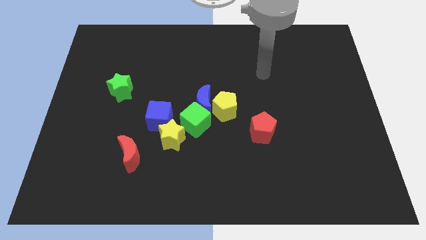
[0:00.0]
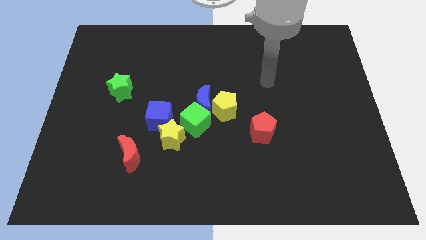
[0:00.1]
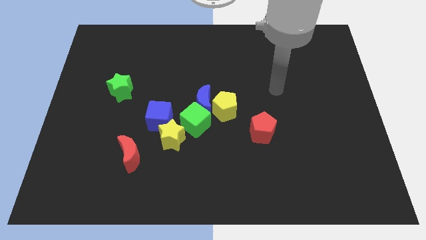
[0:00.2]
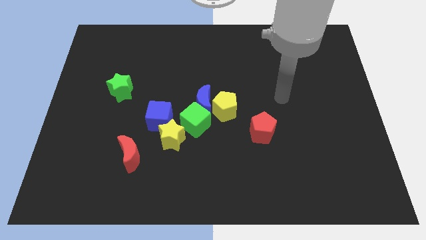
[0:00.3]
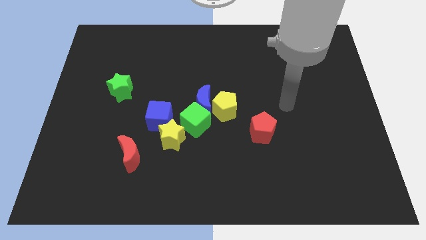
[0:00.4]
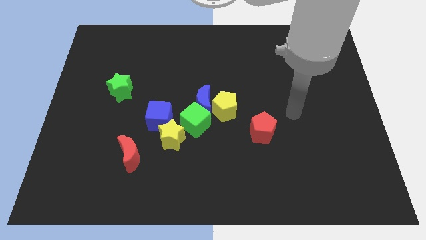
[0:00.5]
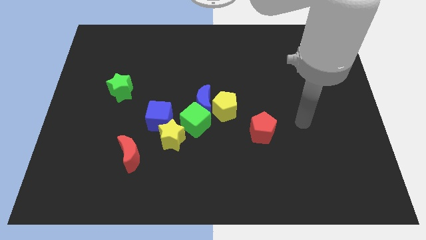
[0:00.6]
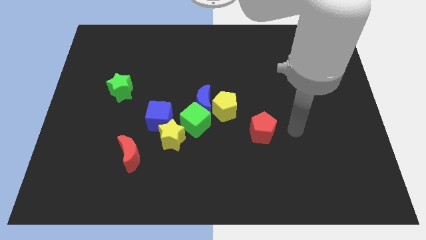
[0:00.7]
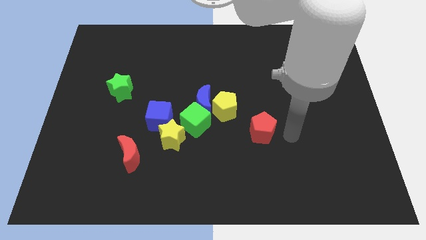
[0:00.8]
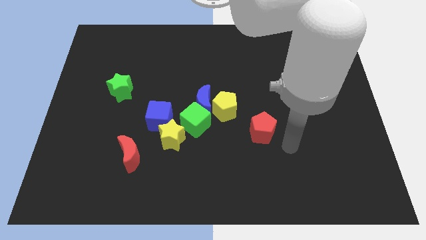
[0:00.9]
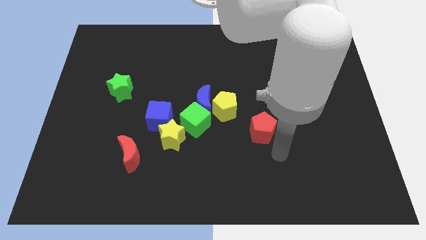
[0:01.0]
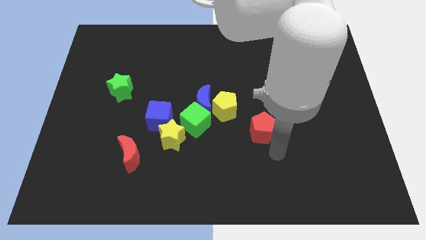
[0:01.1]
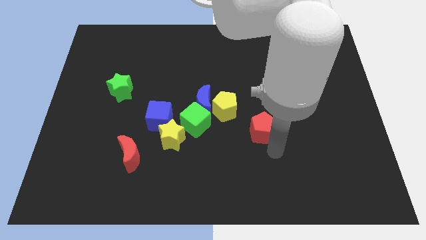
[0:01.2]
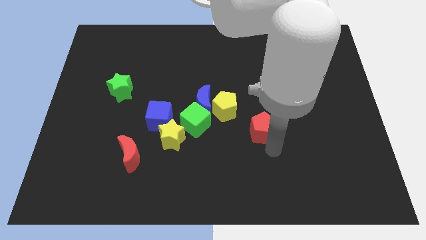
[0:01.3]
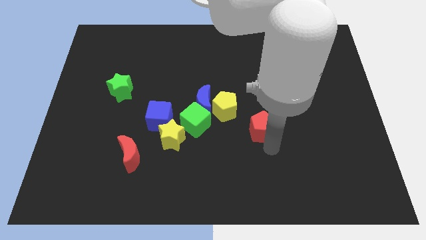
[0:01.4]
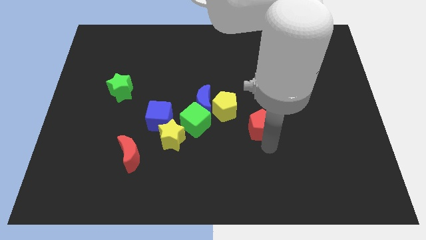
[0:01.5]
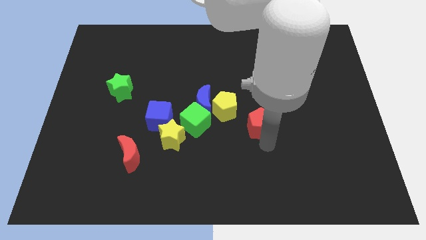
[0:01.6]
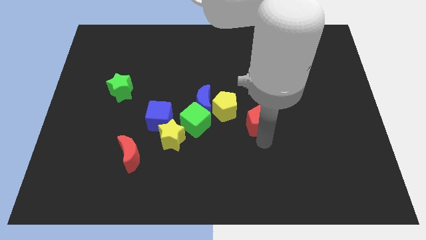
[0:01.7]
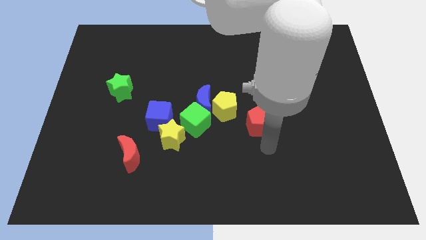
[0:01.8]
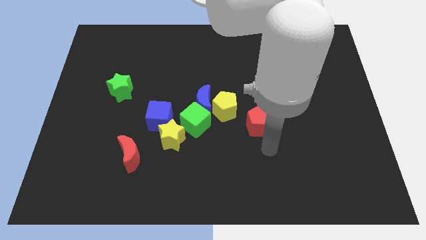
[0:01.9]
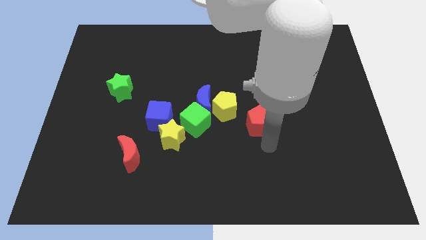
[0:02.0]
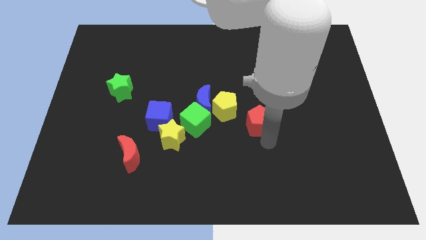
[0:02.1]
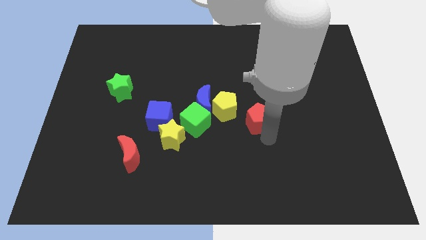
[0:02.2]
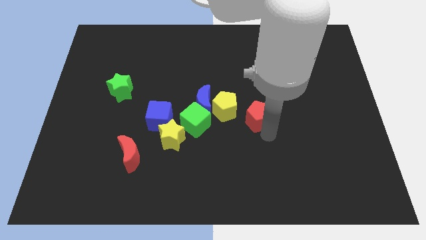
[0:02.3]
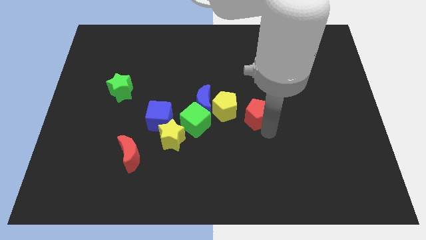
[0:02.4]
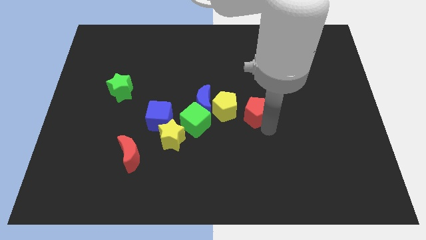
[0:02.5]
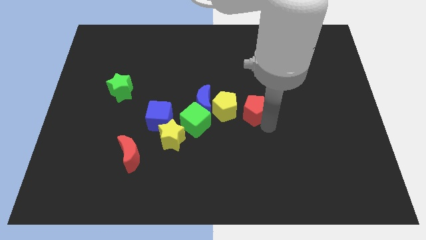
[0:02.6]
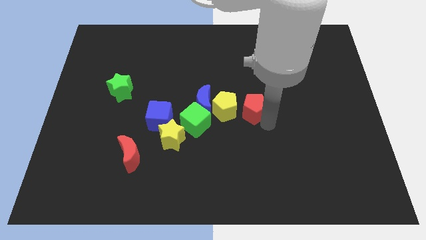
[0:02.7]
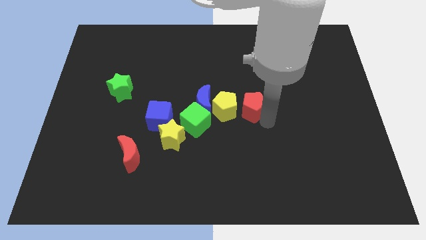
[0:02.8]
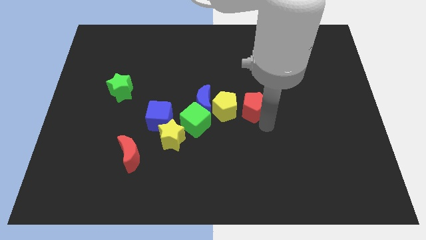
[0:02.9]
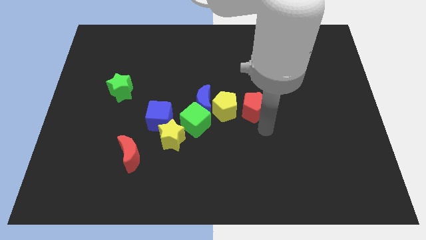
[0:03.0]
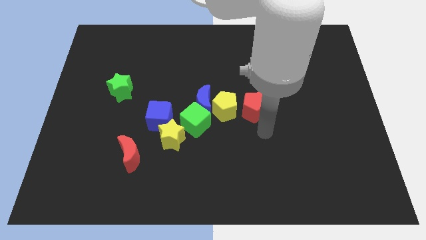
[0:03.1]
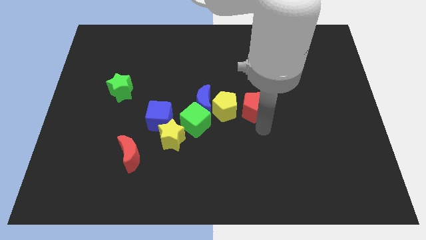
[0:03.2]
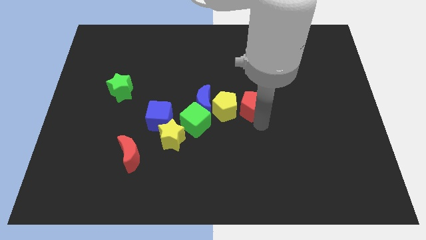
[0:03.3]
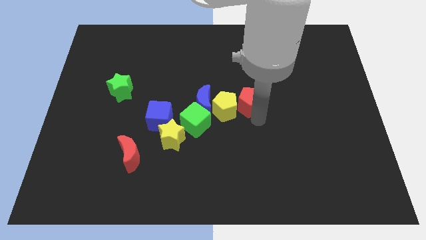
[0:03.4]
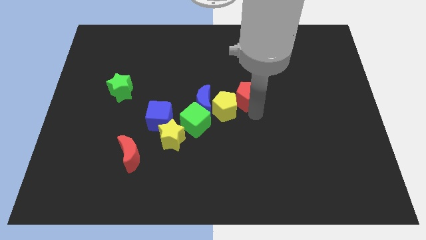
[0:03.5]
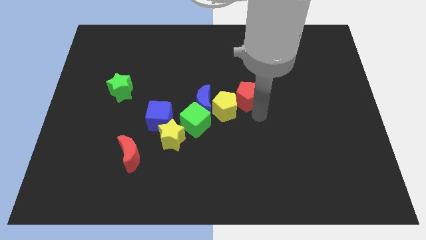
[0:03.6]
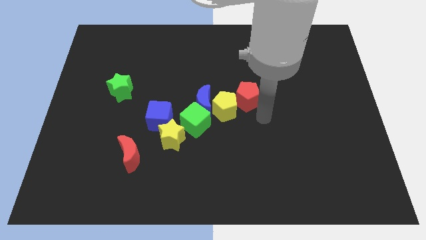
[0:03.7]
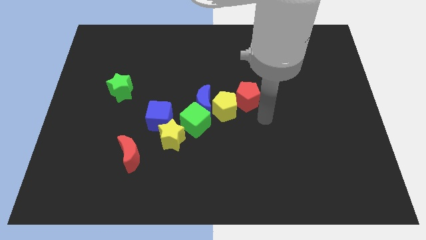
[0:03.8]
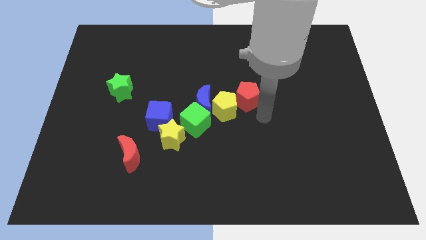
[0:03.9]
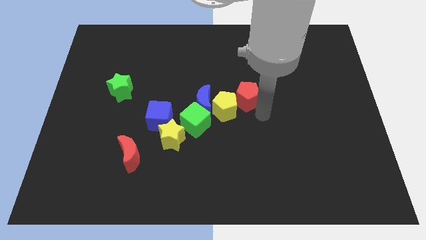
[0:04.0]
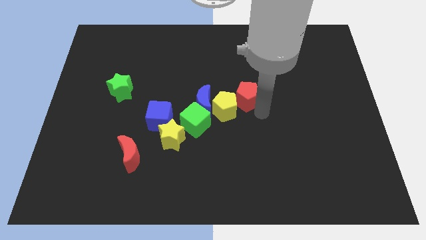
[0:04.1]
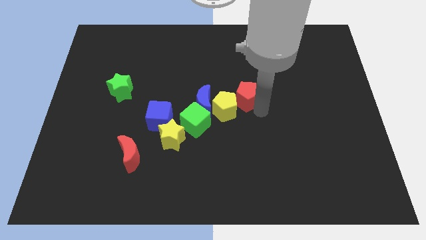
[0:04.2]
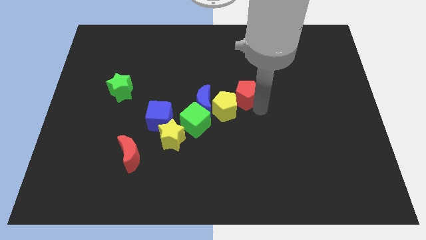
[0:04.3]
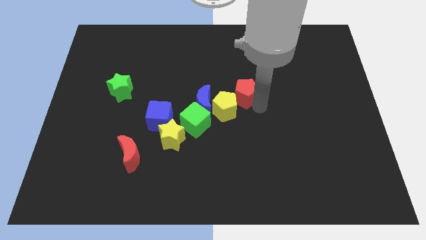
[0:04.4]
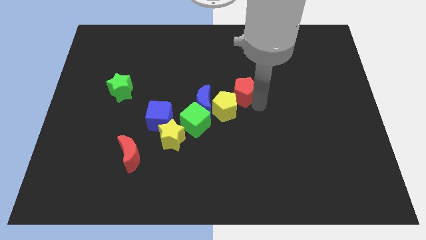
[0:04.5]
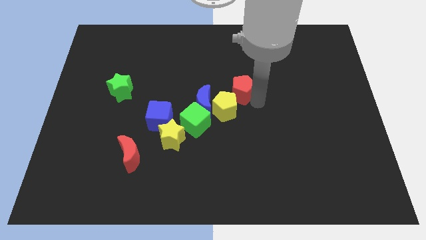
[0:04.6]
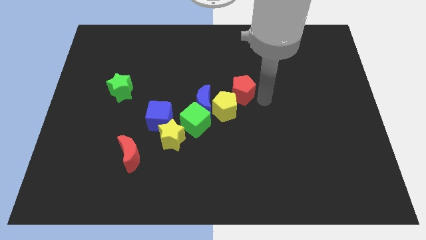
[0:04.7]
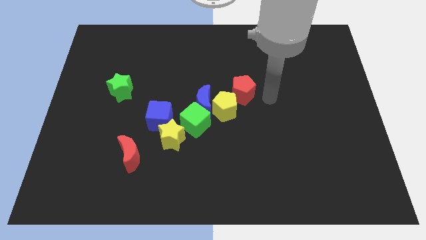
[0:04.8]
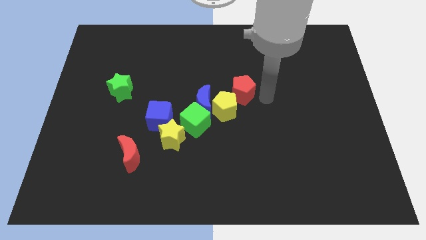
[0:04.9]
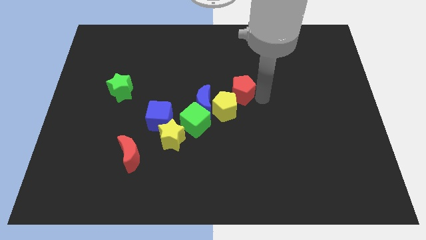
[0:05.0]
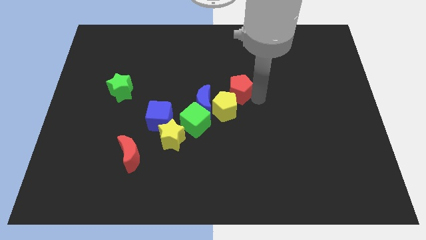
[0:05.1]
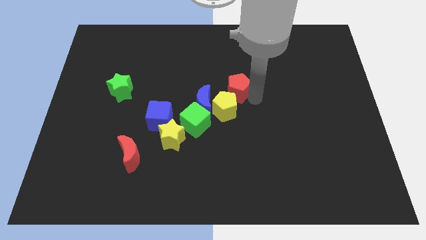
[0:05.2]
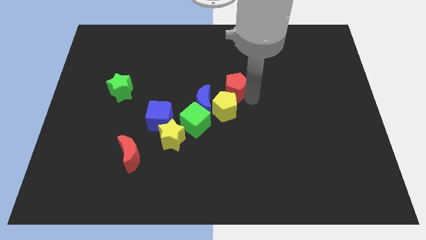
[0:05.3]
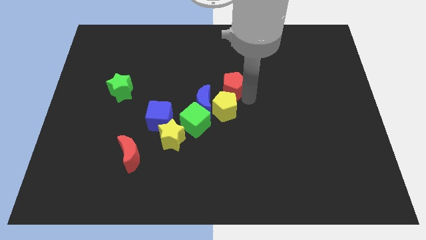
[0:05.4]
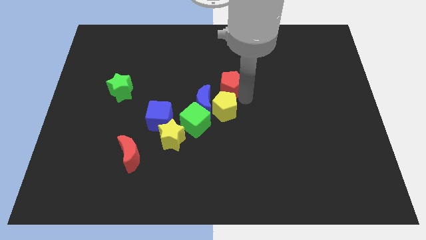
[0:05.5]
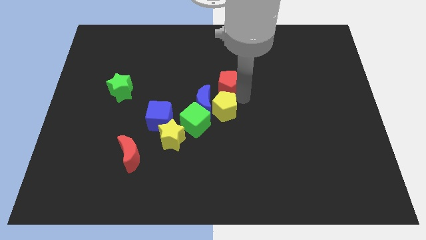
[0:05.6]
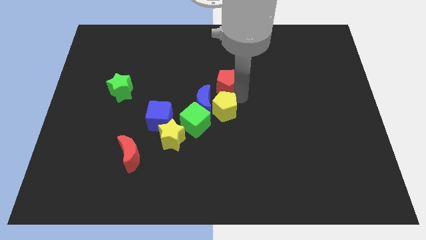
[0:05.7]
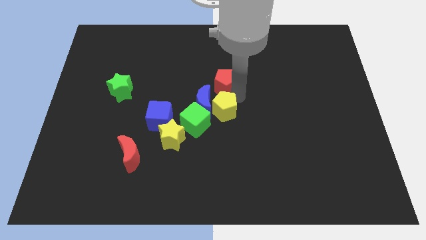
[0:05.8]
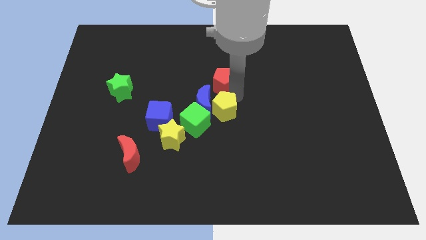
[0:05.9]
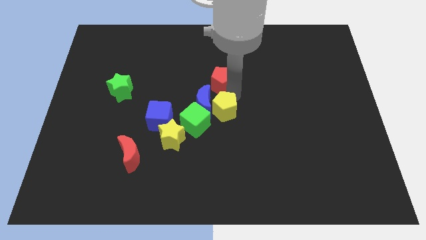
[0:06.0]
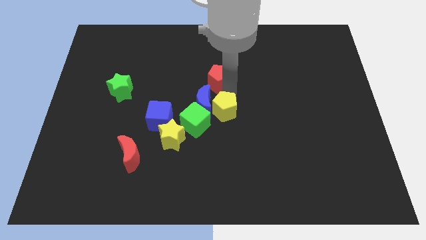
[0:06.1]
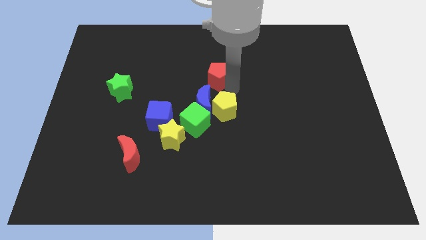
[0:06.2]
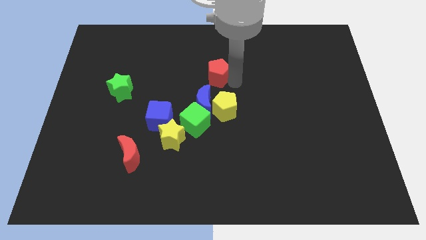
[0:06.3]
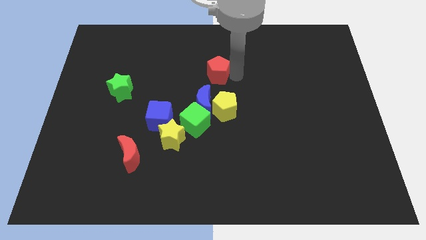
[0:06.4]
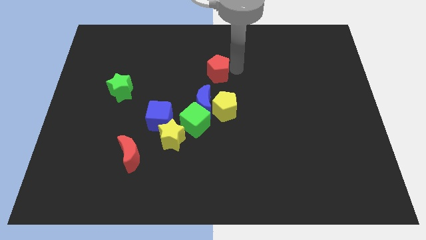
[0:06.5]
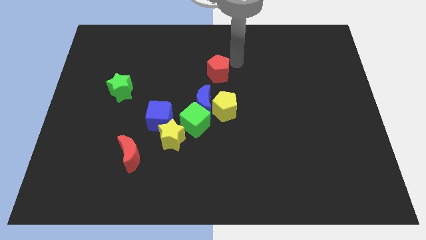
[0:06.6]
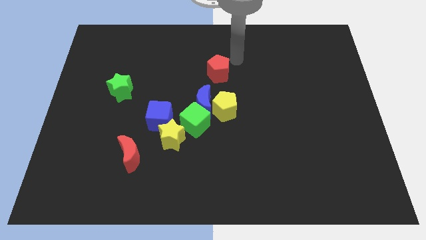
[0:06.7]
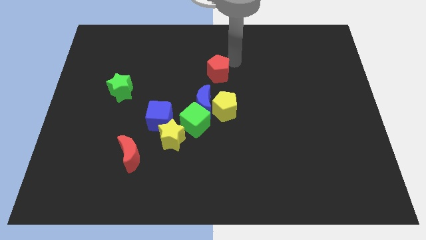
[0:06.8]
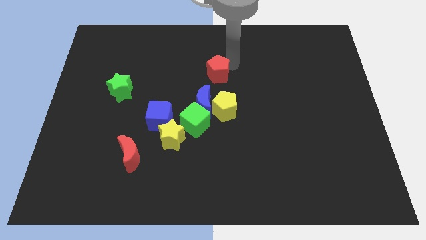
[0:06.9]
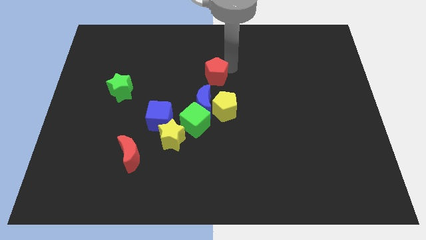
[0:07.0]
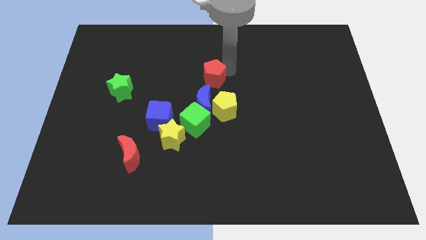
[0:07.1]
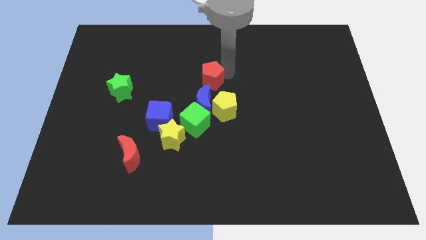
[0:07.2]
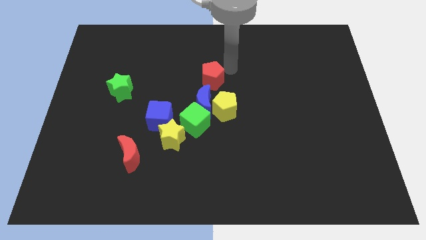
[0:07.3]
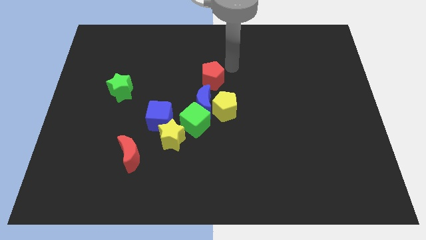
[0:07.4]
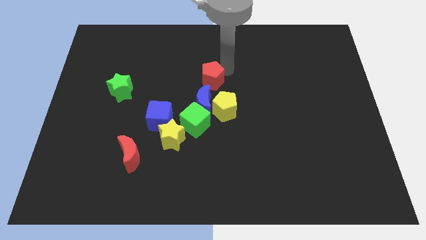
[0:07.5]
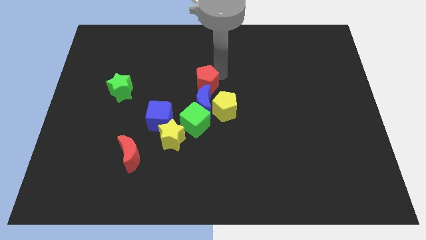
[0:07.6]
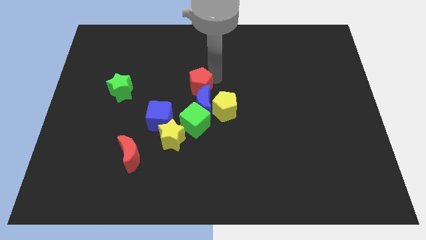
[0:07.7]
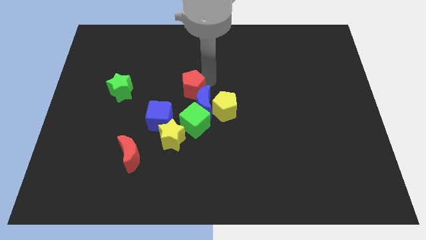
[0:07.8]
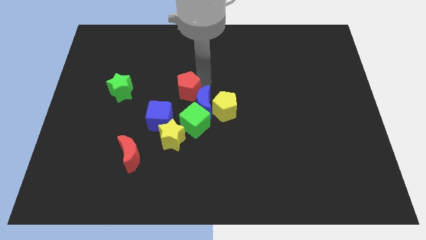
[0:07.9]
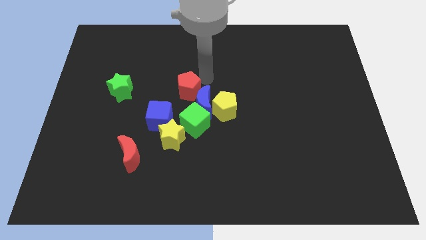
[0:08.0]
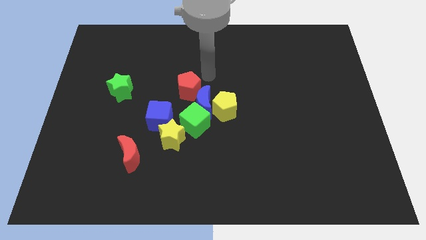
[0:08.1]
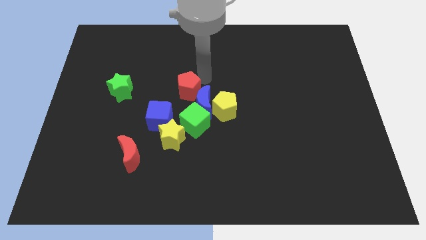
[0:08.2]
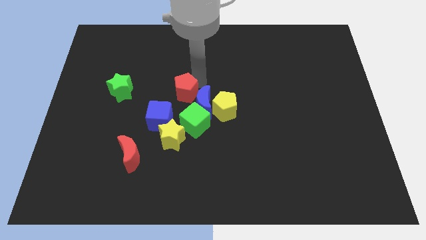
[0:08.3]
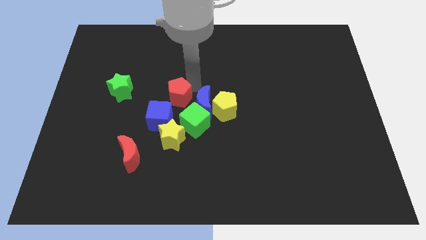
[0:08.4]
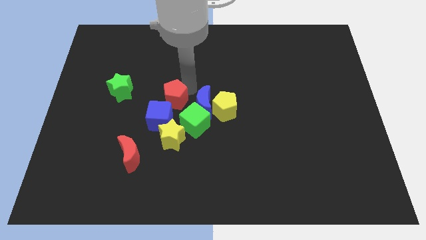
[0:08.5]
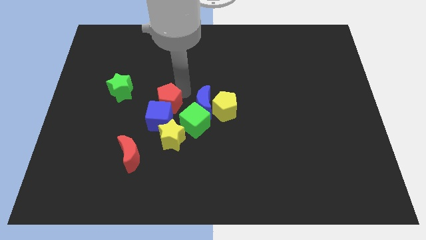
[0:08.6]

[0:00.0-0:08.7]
move the red pentagon towards the blue cube
